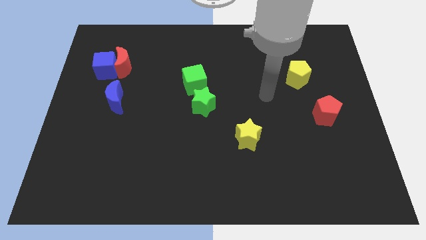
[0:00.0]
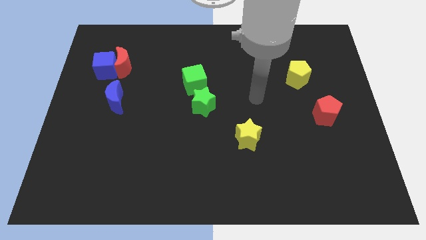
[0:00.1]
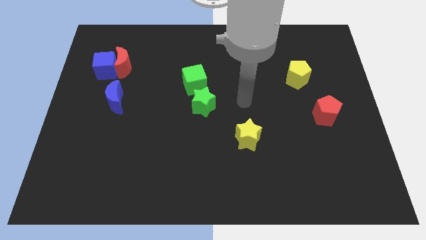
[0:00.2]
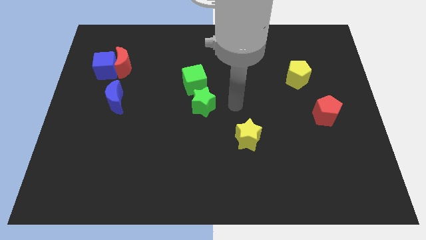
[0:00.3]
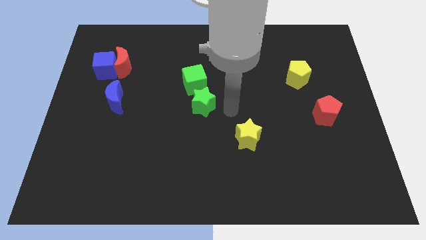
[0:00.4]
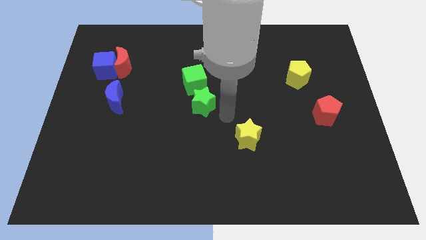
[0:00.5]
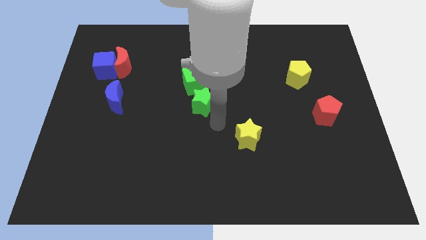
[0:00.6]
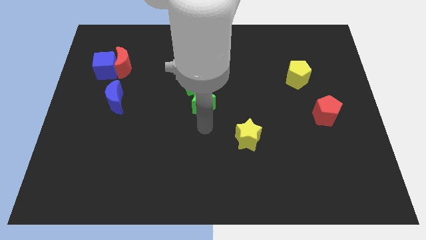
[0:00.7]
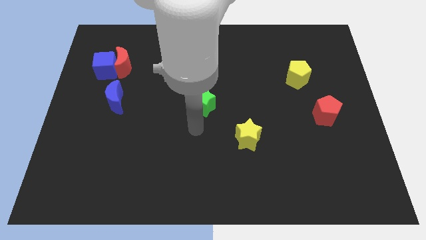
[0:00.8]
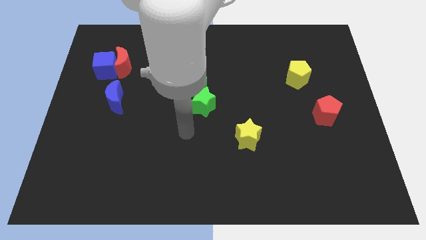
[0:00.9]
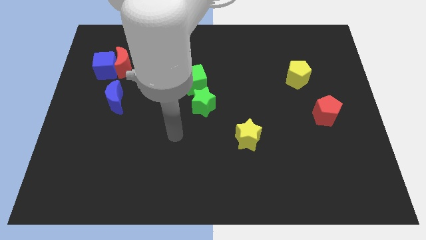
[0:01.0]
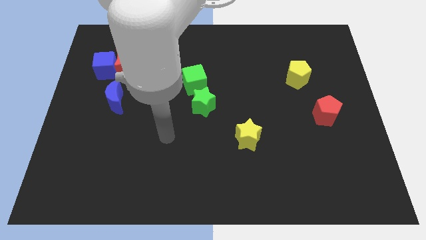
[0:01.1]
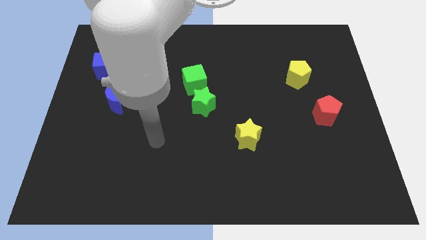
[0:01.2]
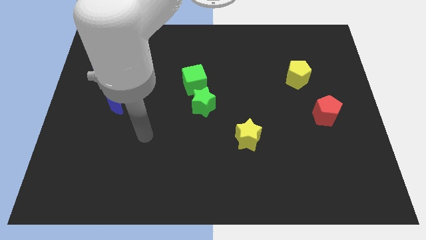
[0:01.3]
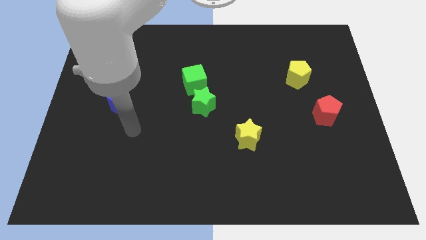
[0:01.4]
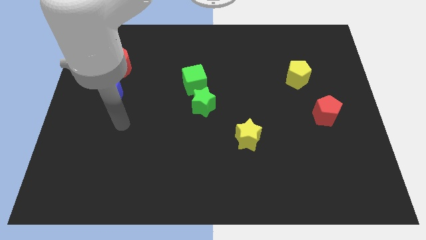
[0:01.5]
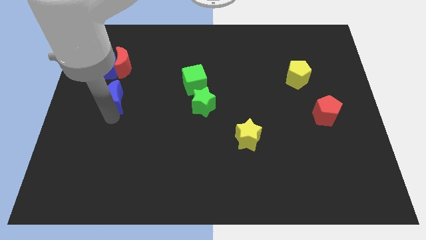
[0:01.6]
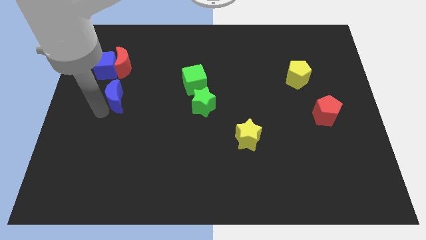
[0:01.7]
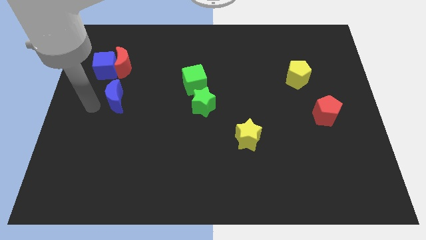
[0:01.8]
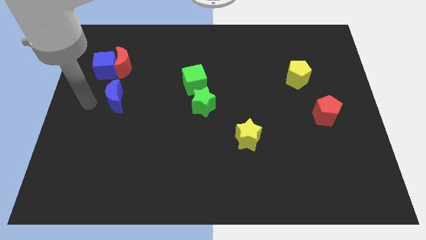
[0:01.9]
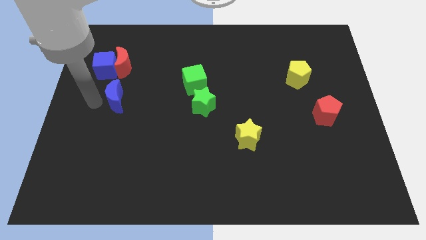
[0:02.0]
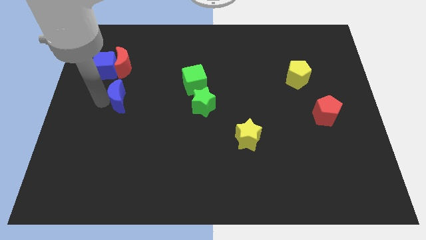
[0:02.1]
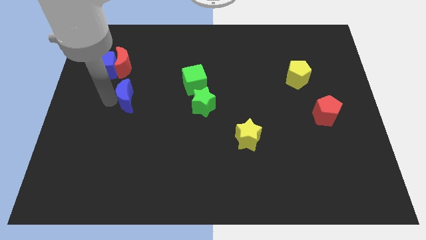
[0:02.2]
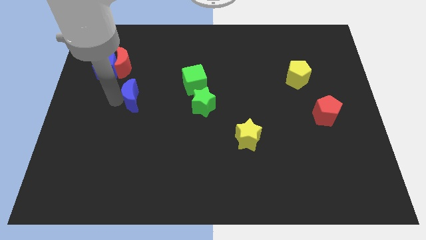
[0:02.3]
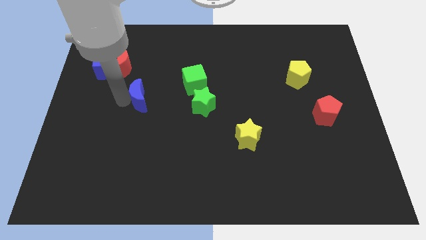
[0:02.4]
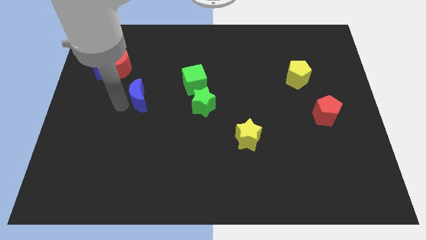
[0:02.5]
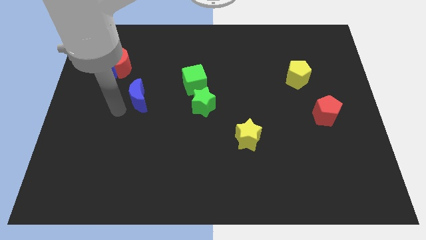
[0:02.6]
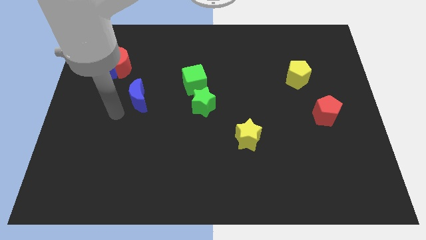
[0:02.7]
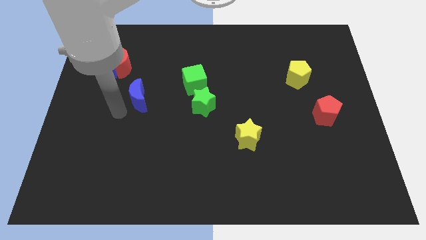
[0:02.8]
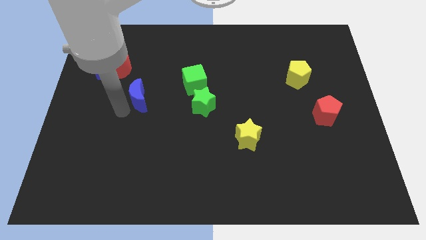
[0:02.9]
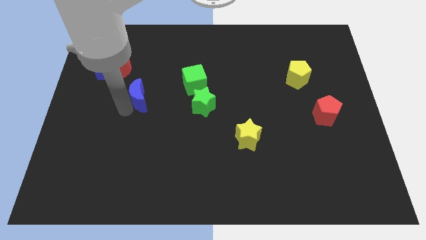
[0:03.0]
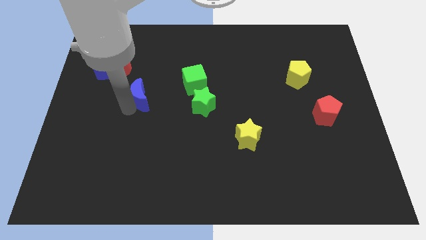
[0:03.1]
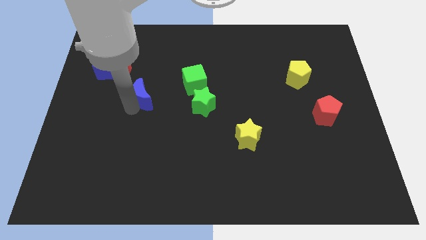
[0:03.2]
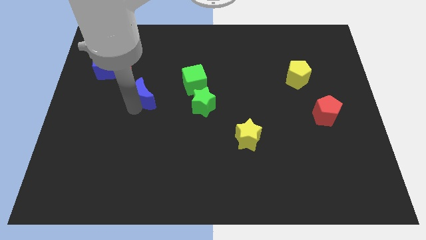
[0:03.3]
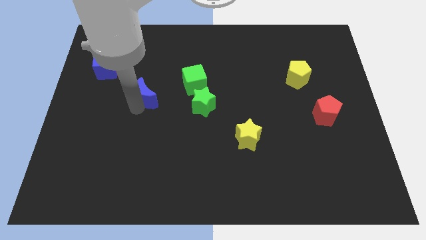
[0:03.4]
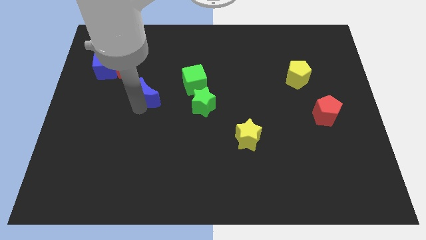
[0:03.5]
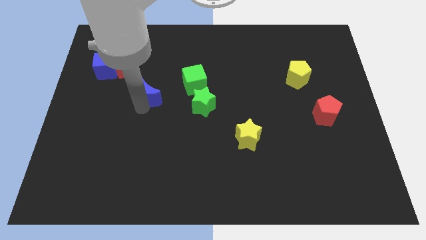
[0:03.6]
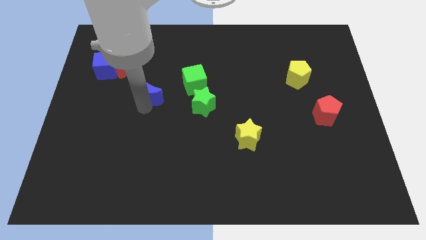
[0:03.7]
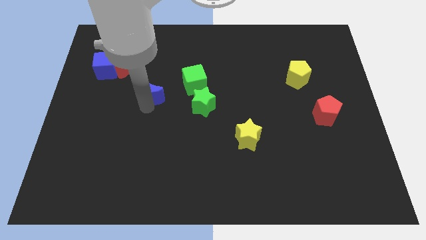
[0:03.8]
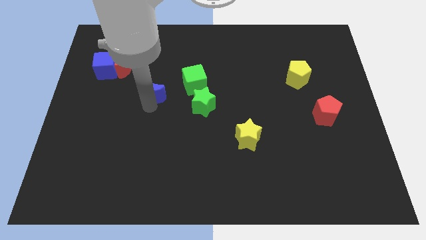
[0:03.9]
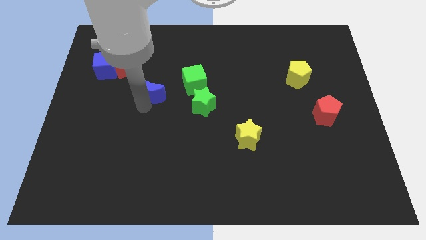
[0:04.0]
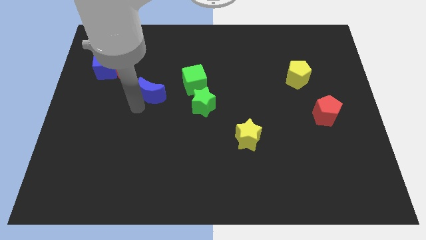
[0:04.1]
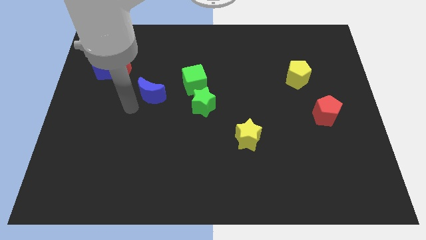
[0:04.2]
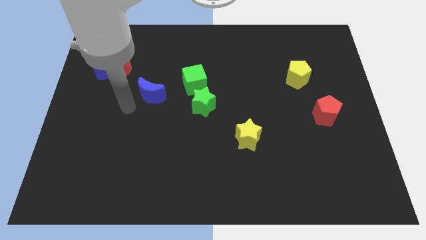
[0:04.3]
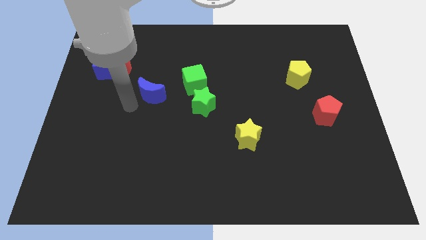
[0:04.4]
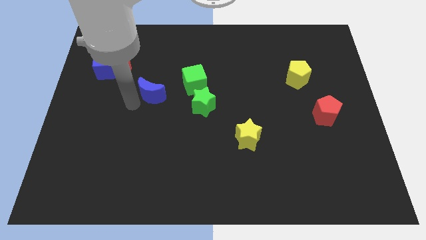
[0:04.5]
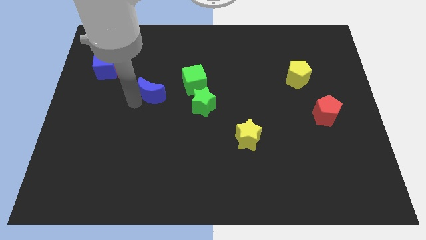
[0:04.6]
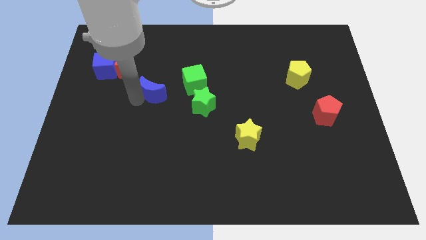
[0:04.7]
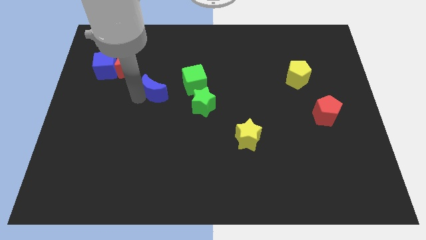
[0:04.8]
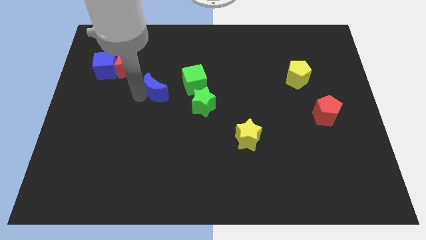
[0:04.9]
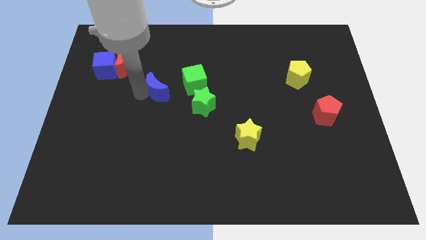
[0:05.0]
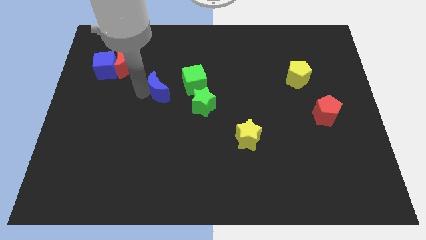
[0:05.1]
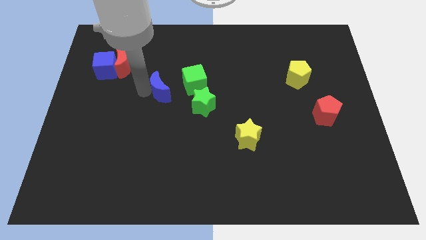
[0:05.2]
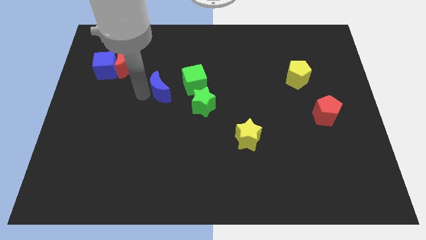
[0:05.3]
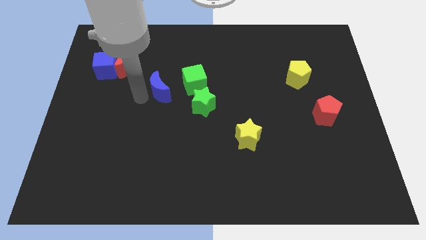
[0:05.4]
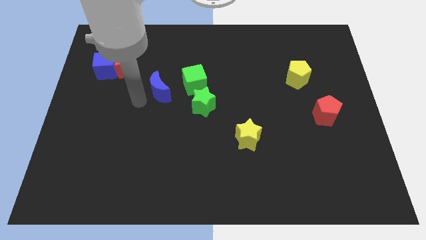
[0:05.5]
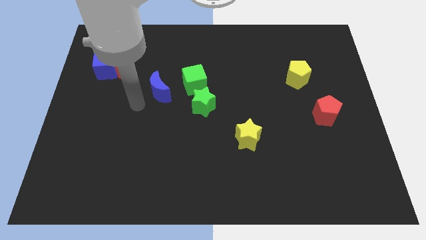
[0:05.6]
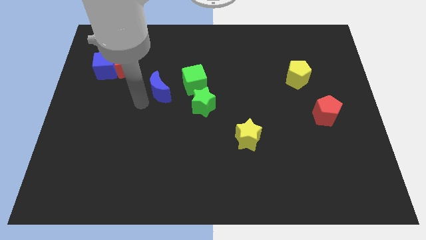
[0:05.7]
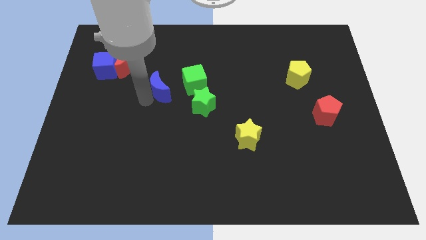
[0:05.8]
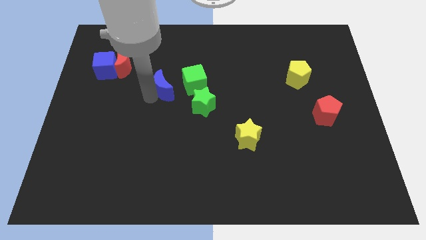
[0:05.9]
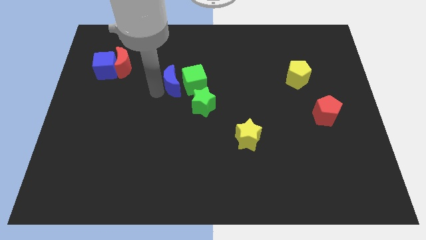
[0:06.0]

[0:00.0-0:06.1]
put the blue moon next to the green cube
